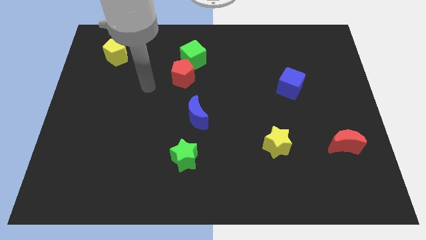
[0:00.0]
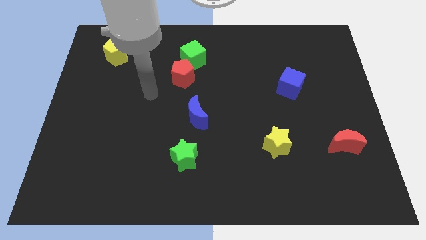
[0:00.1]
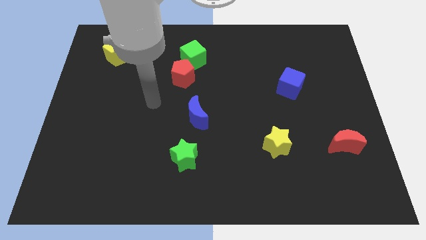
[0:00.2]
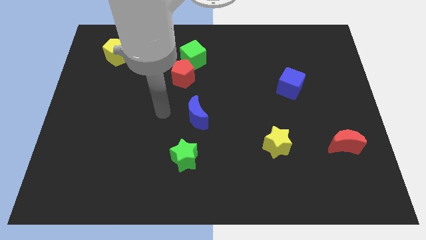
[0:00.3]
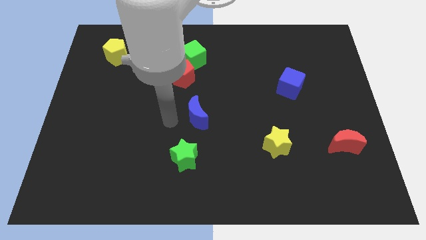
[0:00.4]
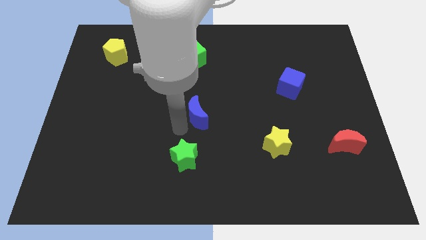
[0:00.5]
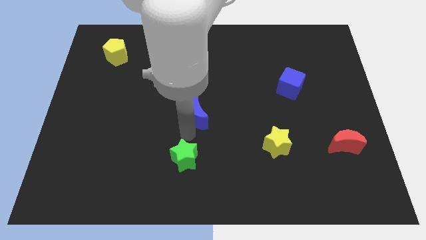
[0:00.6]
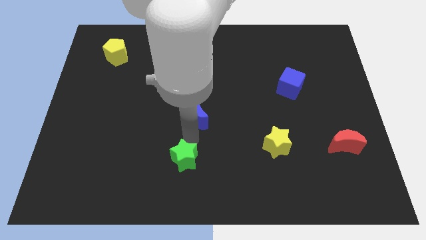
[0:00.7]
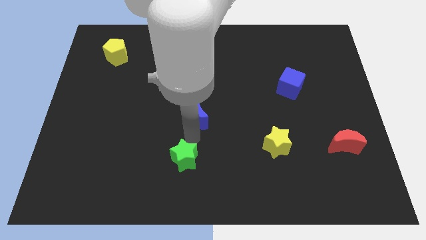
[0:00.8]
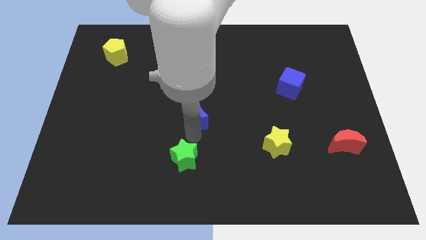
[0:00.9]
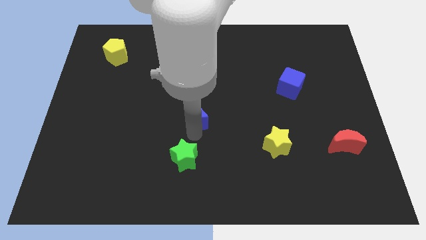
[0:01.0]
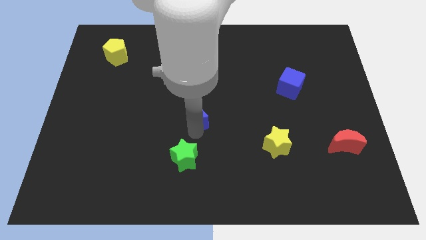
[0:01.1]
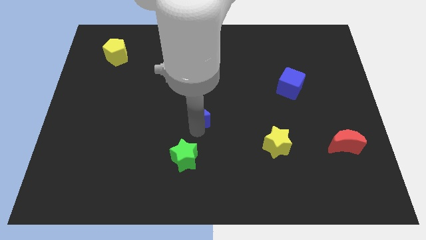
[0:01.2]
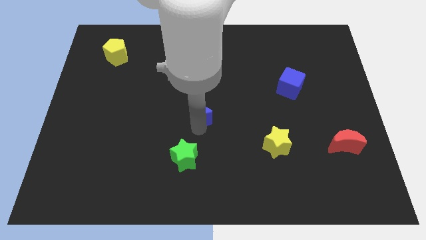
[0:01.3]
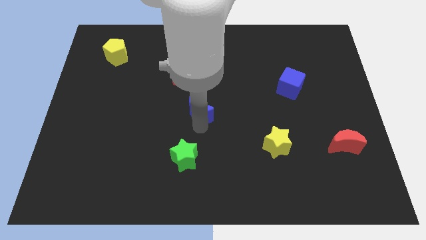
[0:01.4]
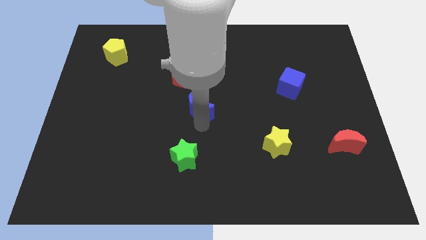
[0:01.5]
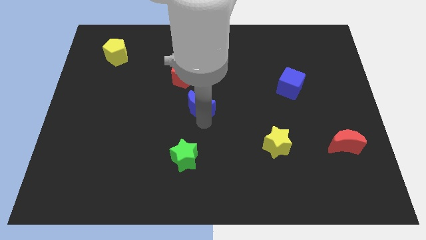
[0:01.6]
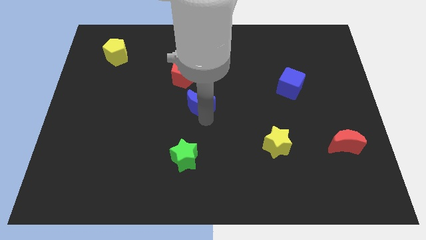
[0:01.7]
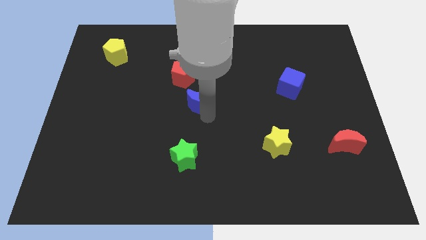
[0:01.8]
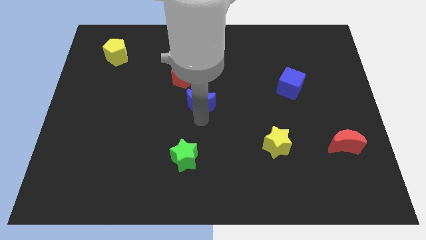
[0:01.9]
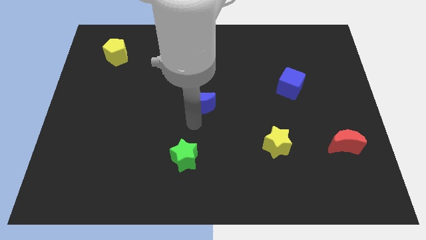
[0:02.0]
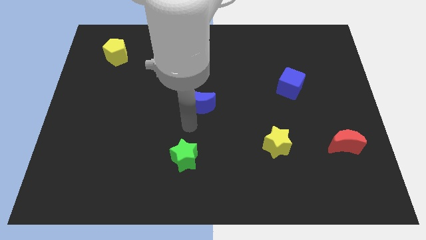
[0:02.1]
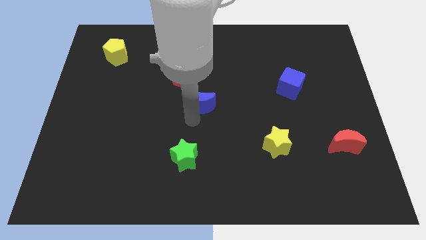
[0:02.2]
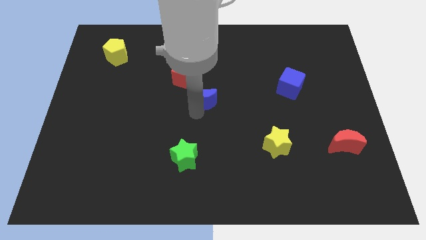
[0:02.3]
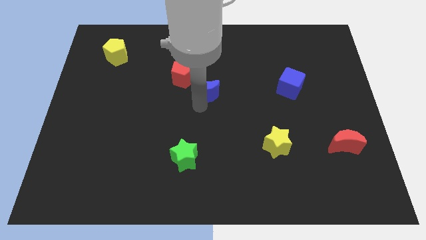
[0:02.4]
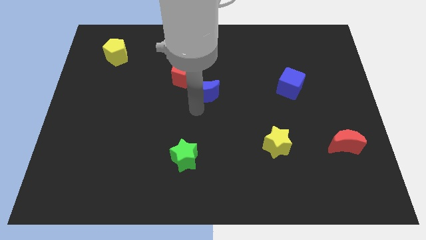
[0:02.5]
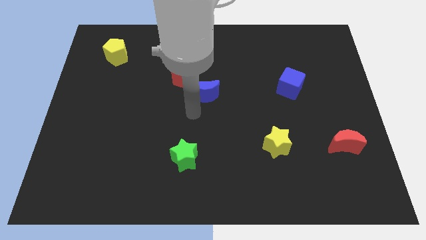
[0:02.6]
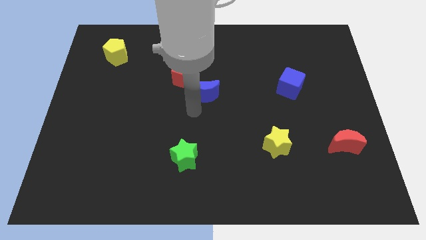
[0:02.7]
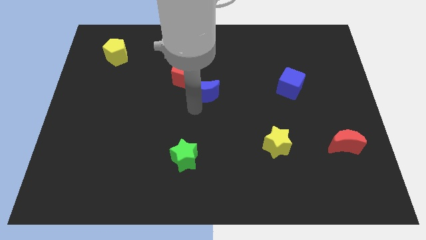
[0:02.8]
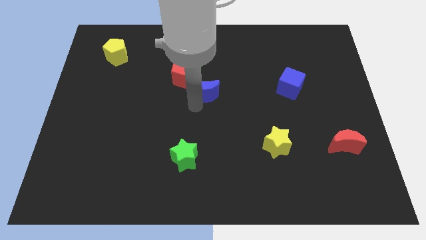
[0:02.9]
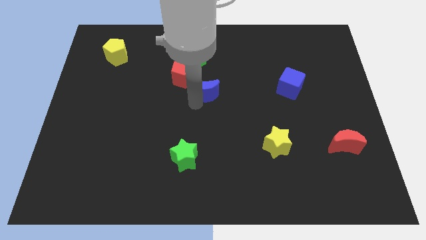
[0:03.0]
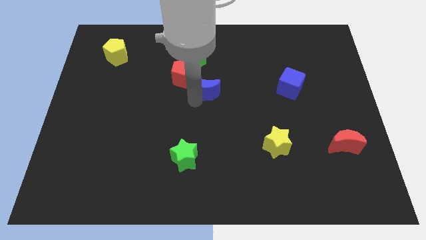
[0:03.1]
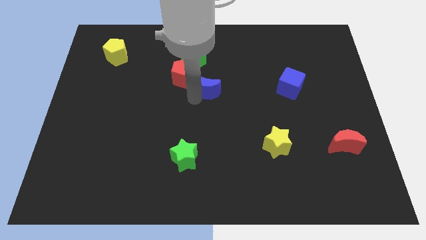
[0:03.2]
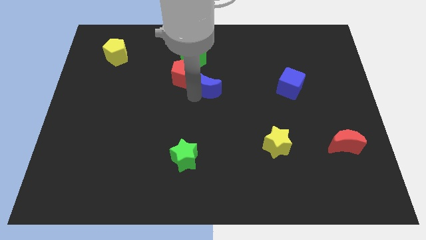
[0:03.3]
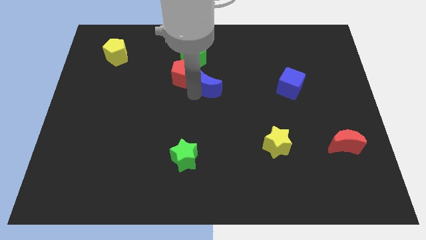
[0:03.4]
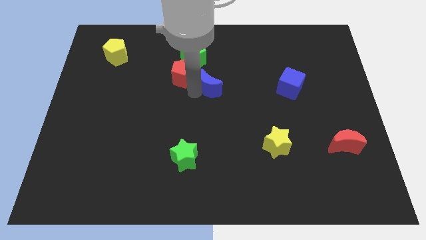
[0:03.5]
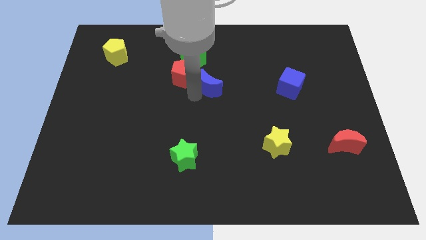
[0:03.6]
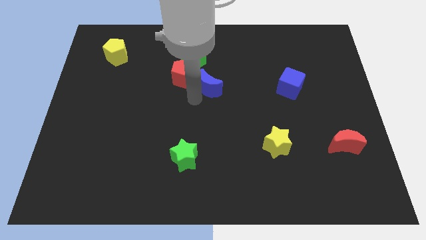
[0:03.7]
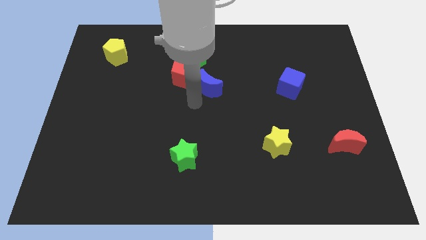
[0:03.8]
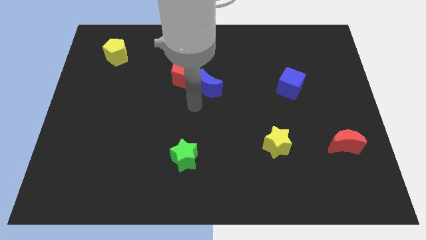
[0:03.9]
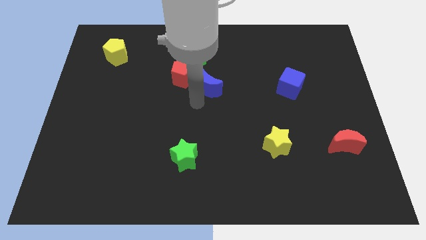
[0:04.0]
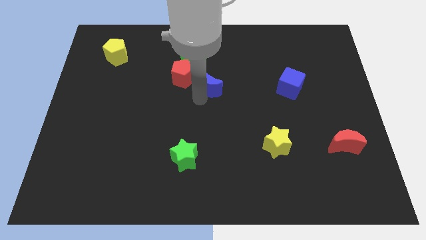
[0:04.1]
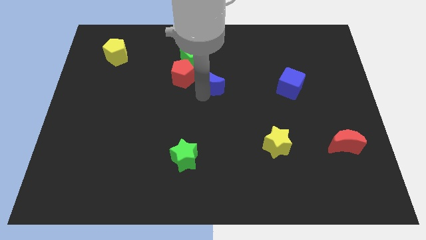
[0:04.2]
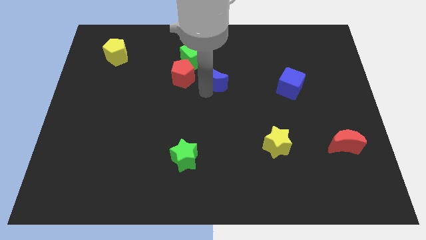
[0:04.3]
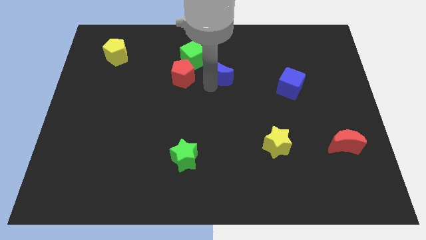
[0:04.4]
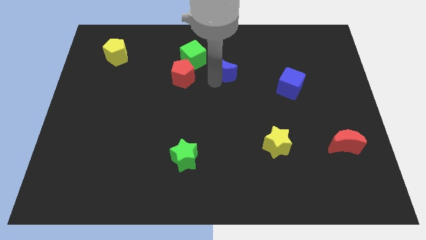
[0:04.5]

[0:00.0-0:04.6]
put the blue moon right of the green cube

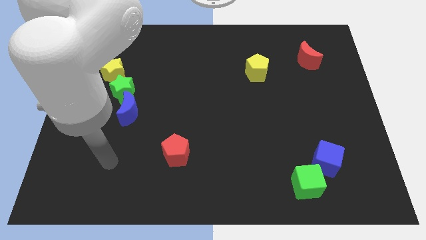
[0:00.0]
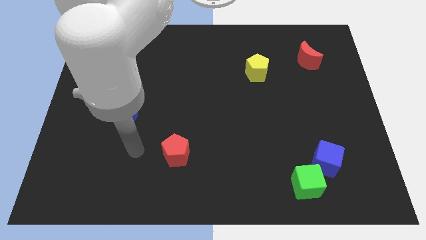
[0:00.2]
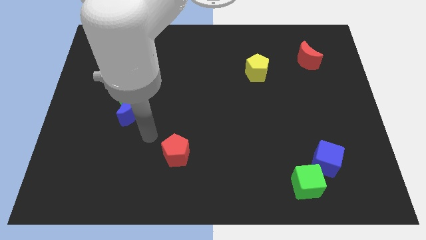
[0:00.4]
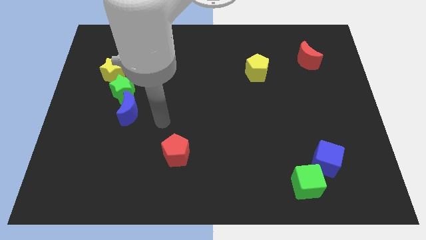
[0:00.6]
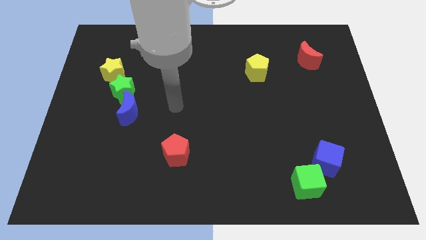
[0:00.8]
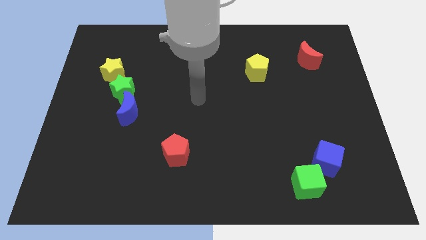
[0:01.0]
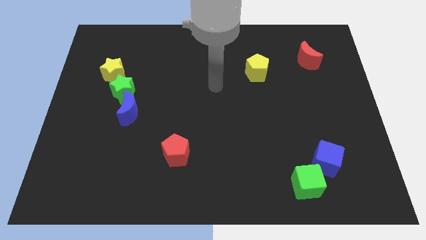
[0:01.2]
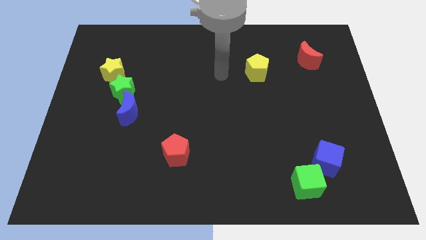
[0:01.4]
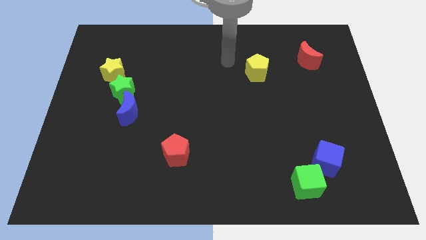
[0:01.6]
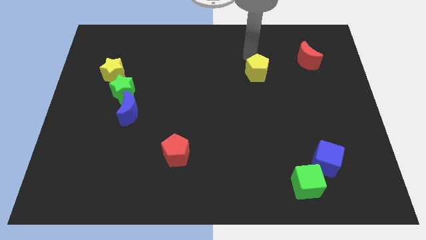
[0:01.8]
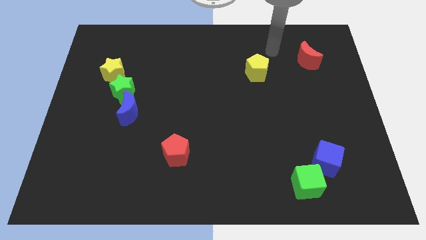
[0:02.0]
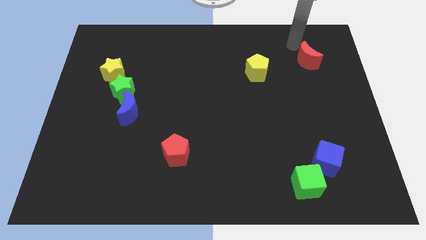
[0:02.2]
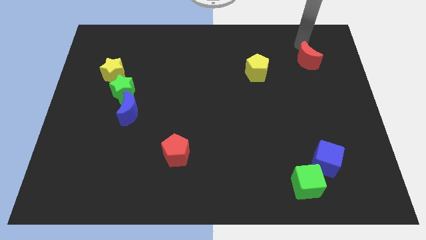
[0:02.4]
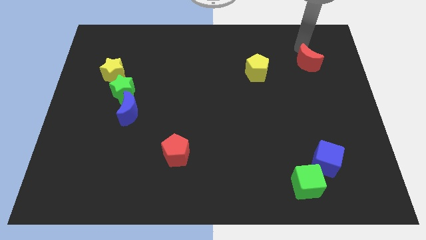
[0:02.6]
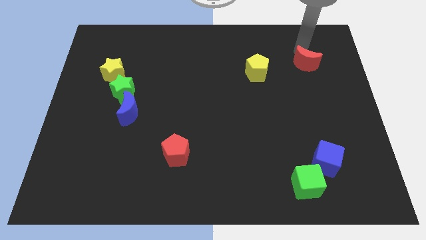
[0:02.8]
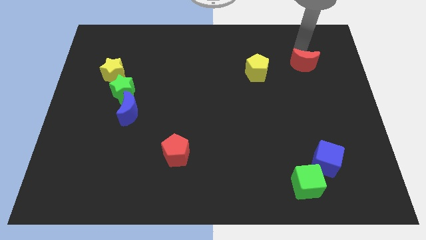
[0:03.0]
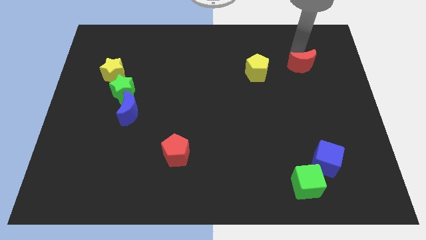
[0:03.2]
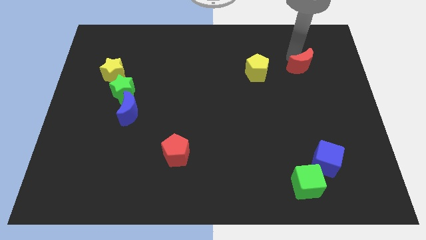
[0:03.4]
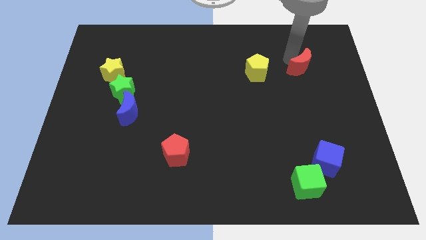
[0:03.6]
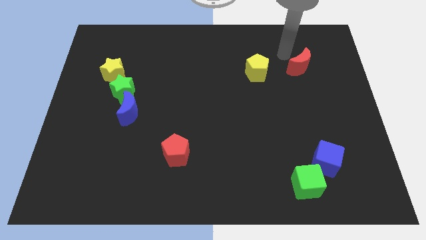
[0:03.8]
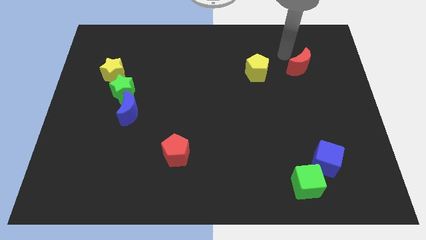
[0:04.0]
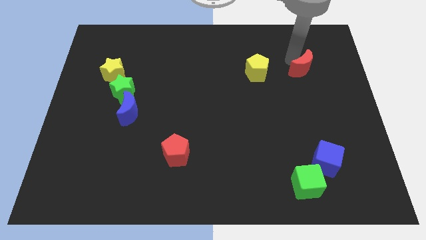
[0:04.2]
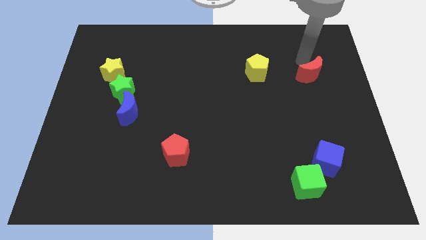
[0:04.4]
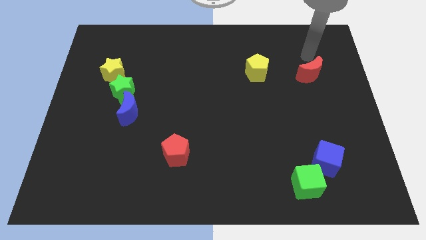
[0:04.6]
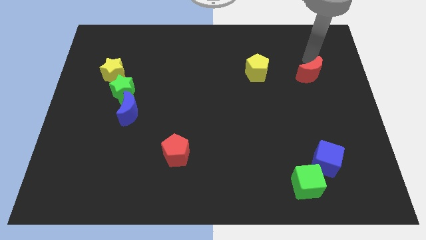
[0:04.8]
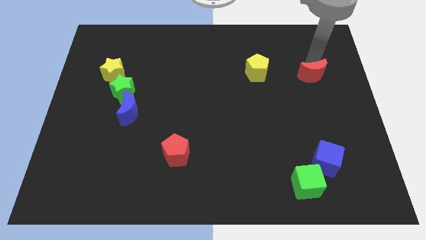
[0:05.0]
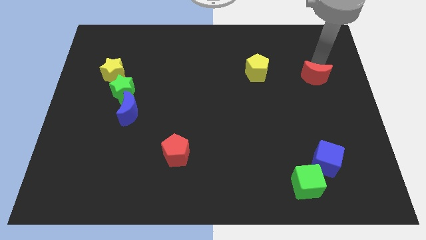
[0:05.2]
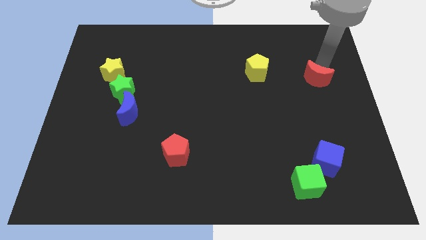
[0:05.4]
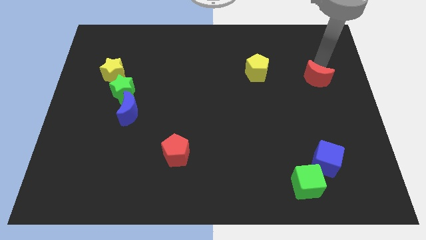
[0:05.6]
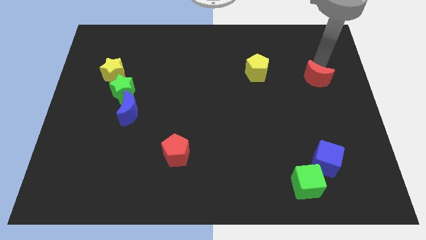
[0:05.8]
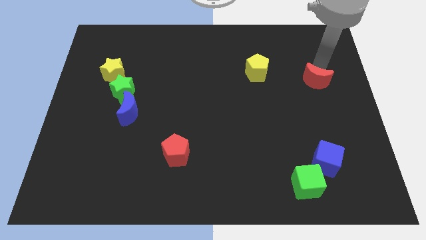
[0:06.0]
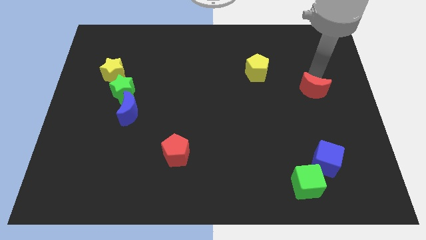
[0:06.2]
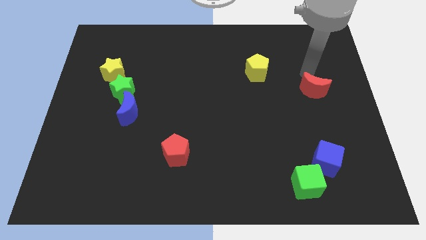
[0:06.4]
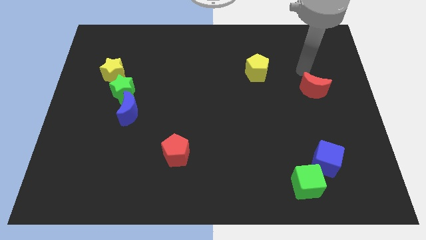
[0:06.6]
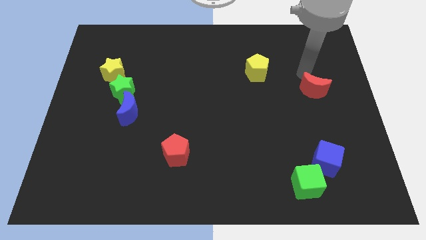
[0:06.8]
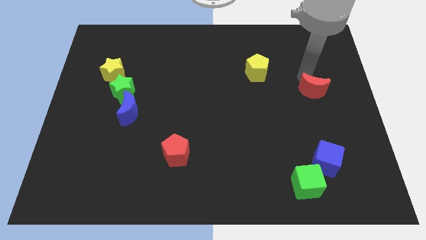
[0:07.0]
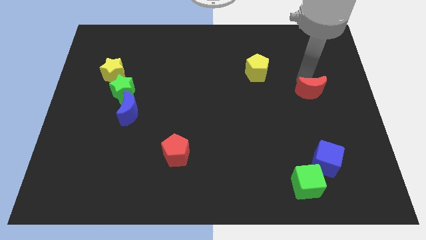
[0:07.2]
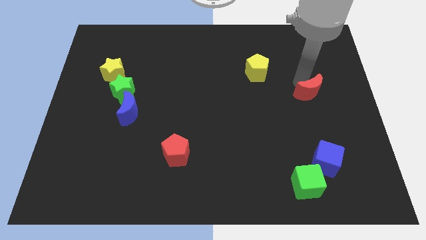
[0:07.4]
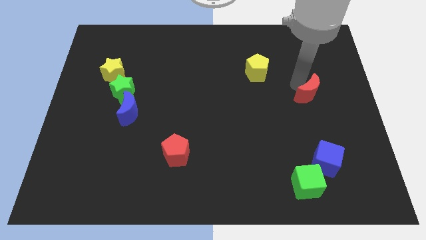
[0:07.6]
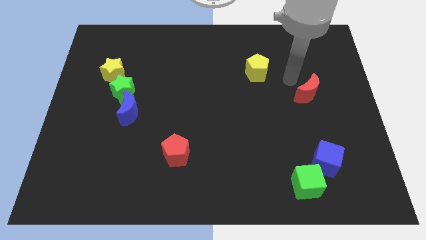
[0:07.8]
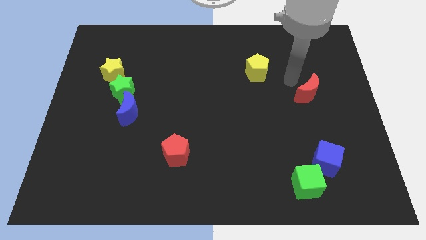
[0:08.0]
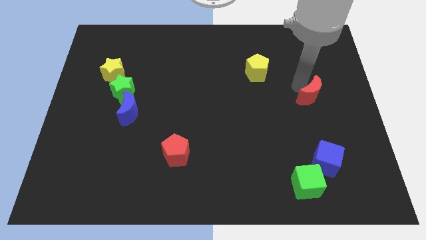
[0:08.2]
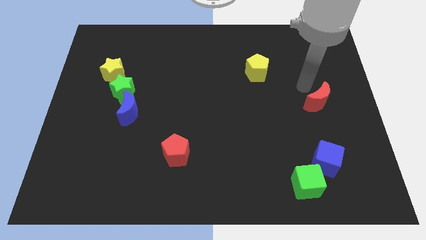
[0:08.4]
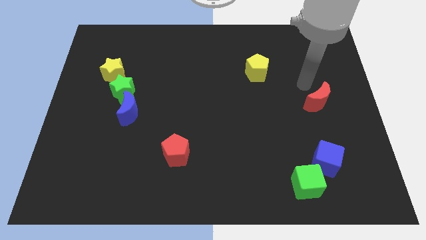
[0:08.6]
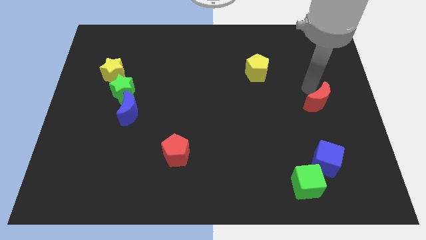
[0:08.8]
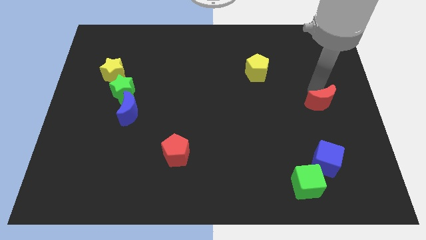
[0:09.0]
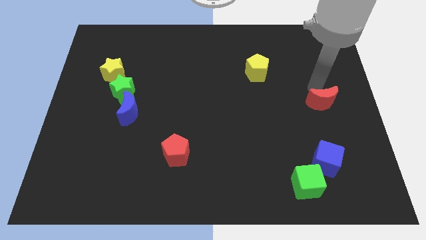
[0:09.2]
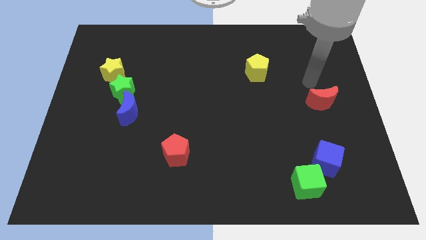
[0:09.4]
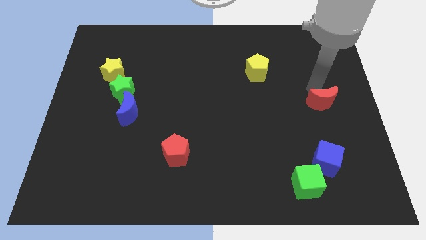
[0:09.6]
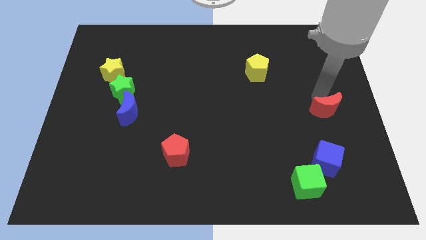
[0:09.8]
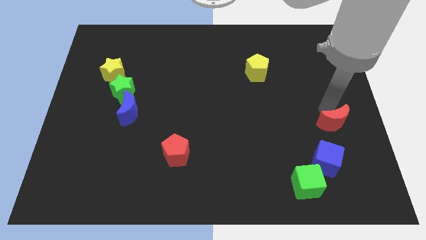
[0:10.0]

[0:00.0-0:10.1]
move the red moon to the top right of the blue cube
